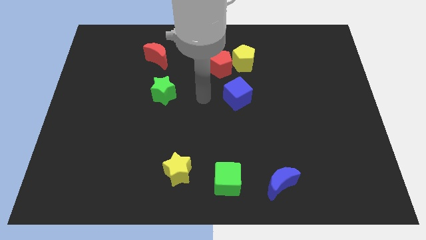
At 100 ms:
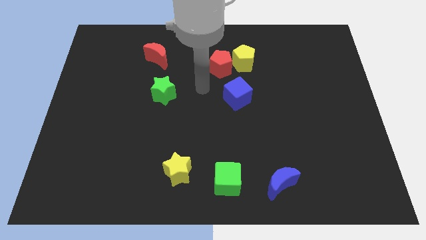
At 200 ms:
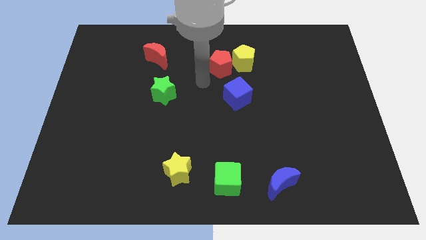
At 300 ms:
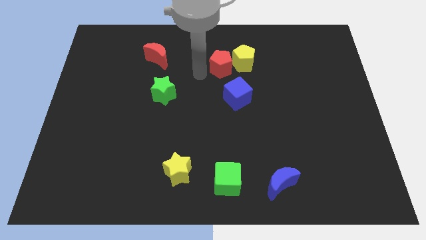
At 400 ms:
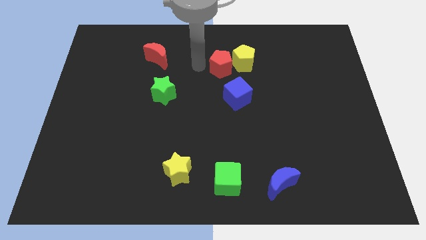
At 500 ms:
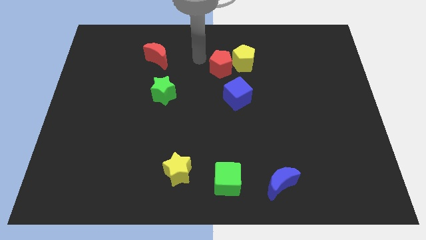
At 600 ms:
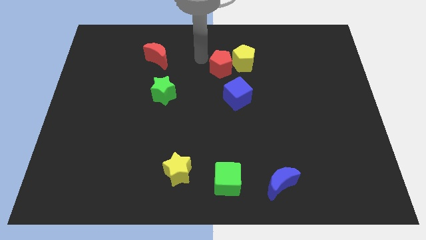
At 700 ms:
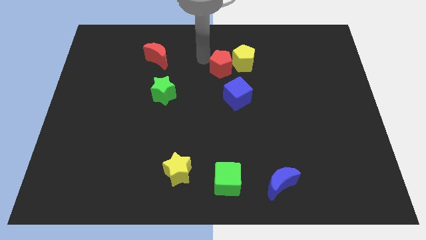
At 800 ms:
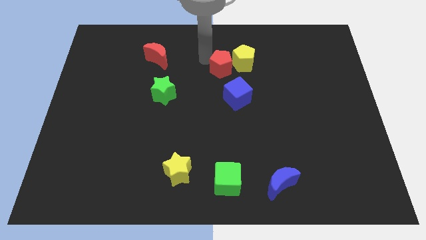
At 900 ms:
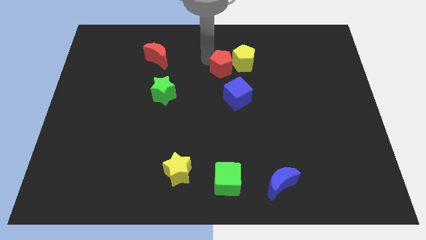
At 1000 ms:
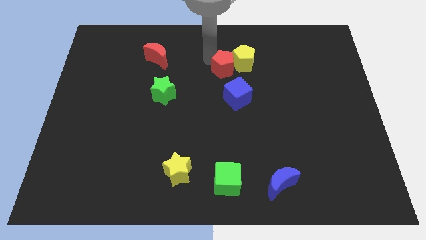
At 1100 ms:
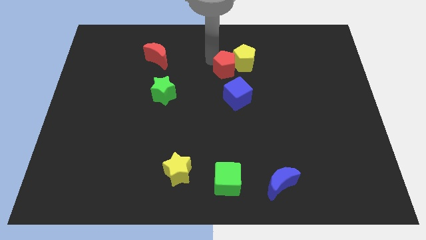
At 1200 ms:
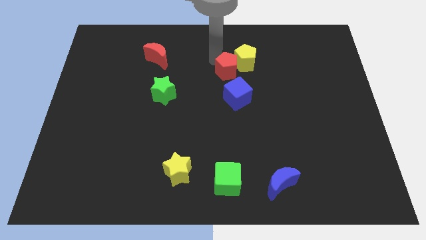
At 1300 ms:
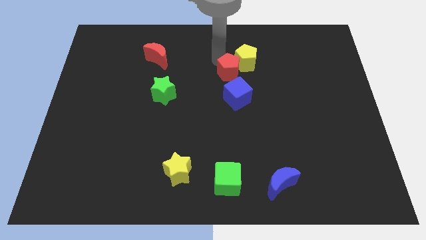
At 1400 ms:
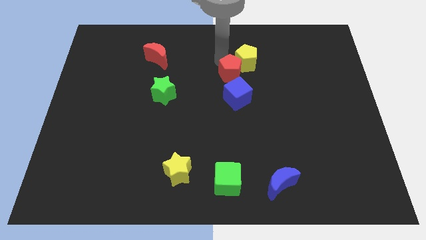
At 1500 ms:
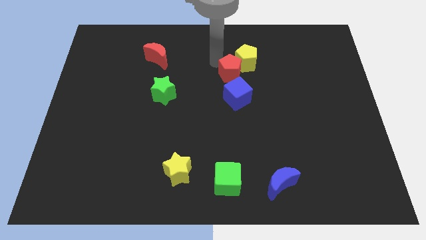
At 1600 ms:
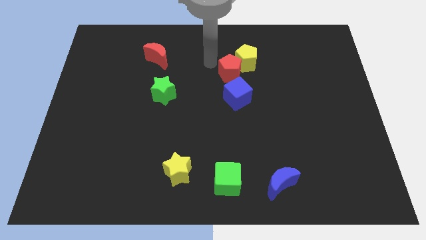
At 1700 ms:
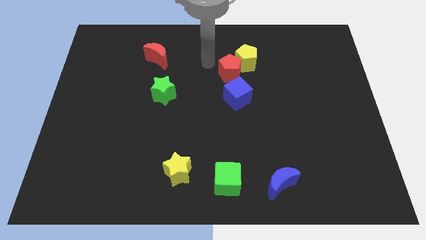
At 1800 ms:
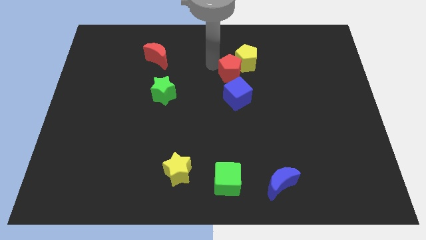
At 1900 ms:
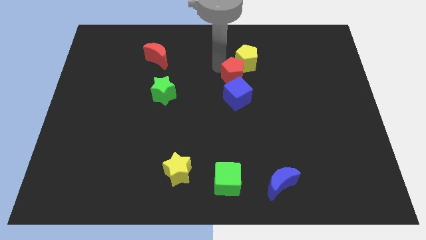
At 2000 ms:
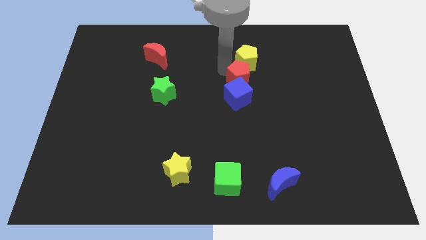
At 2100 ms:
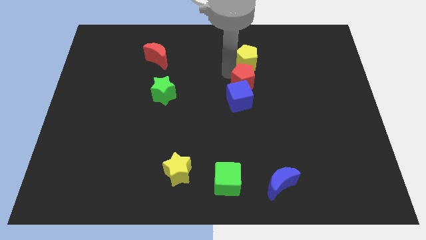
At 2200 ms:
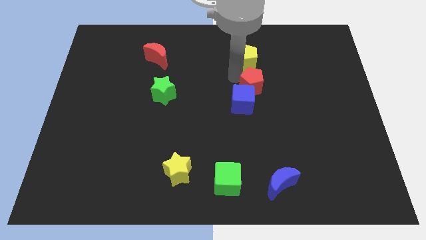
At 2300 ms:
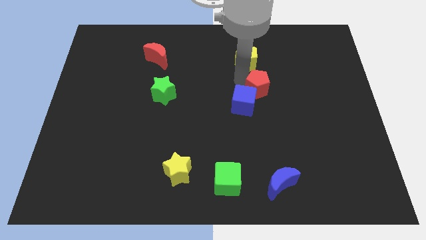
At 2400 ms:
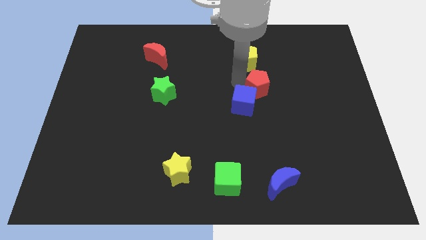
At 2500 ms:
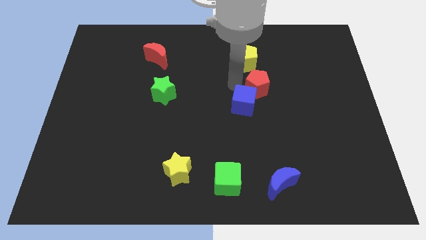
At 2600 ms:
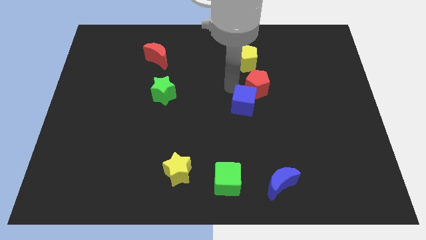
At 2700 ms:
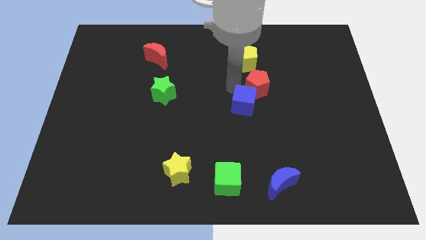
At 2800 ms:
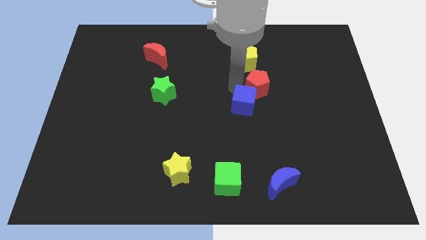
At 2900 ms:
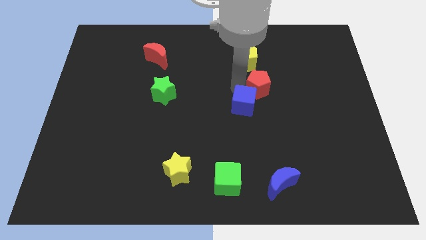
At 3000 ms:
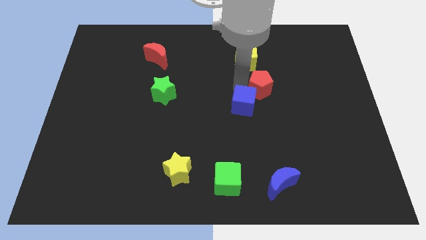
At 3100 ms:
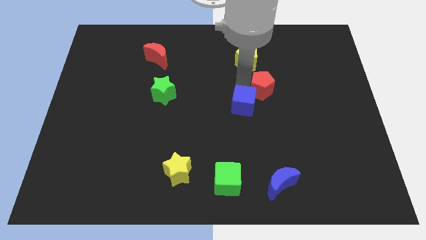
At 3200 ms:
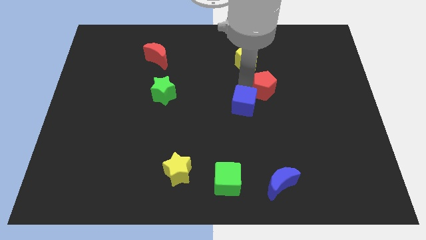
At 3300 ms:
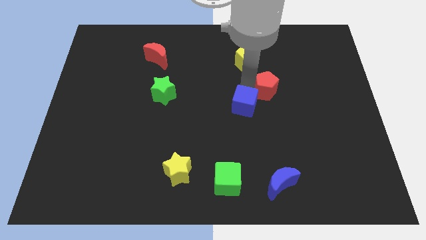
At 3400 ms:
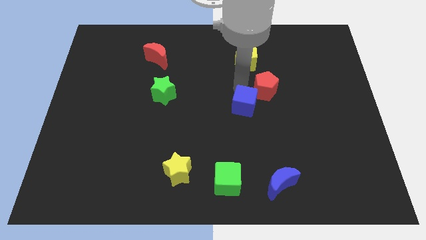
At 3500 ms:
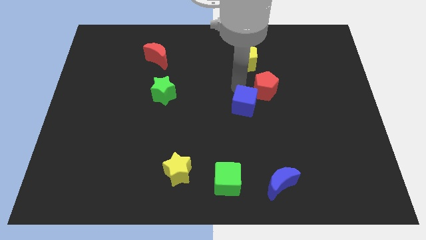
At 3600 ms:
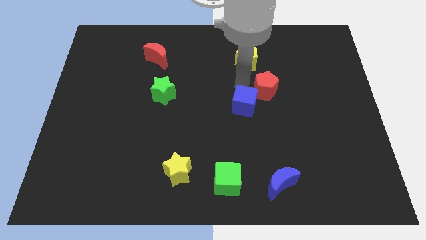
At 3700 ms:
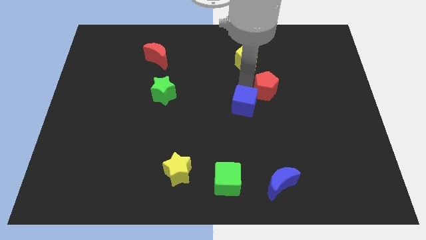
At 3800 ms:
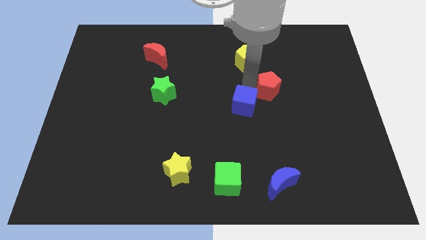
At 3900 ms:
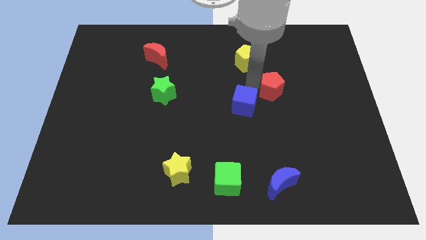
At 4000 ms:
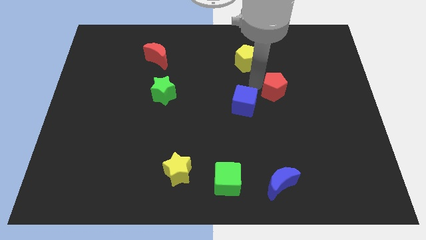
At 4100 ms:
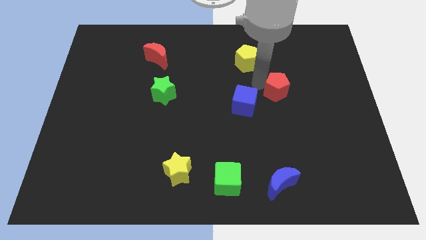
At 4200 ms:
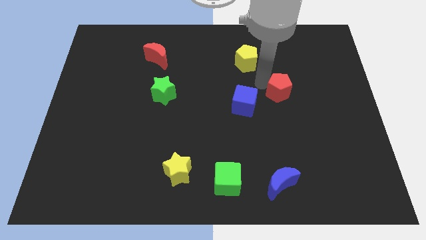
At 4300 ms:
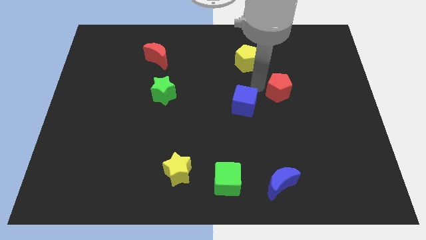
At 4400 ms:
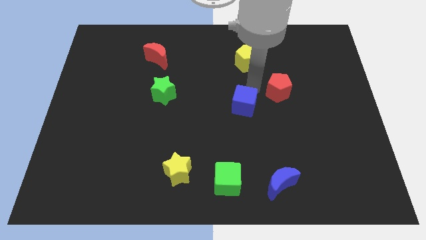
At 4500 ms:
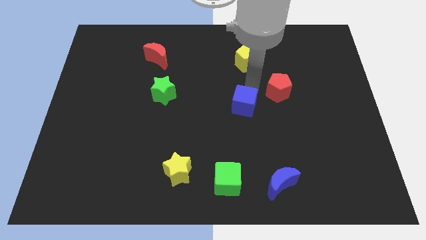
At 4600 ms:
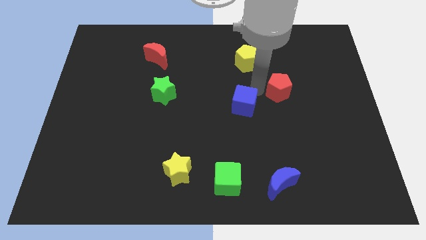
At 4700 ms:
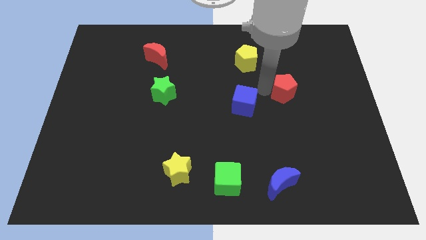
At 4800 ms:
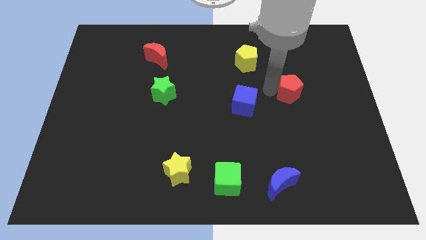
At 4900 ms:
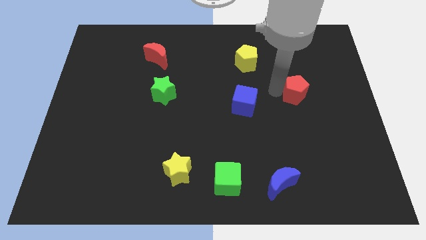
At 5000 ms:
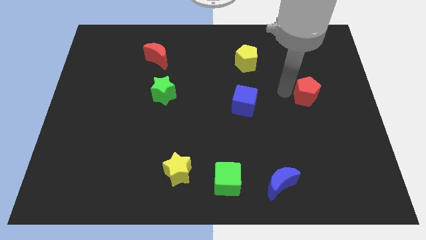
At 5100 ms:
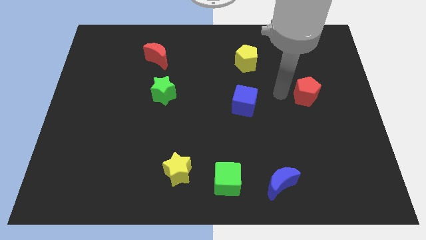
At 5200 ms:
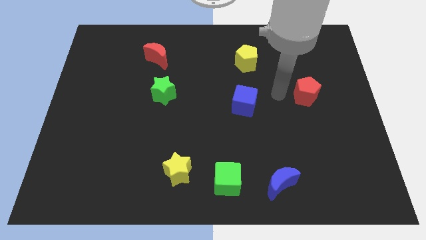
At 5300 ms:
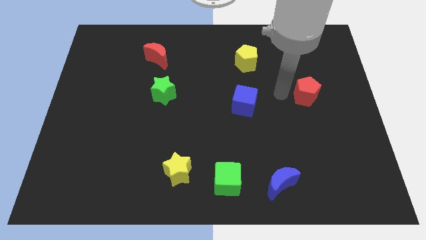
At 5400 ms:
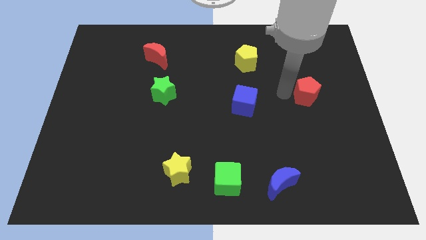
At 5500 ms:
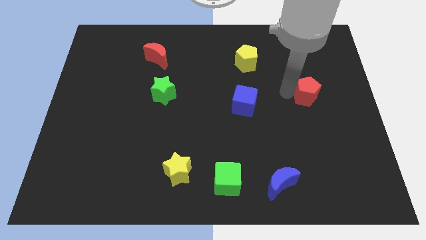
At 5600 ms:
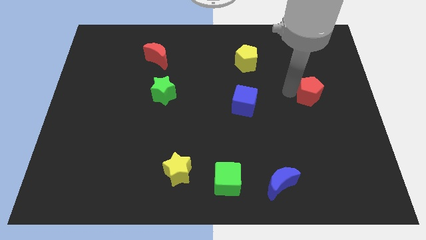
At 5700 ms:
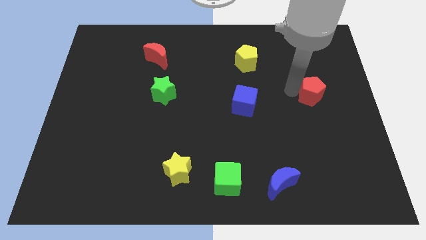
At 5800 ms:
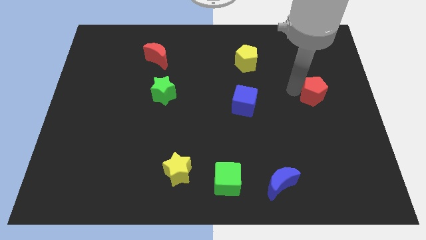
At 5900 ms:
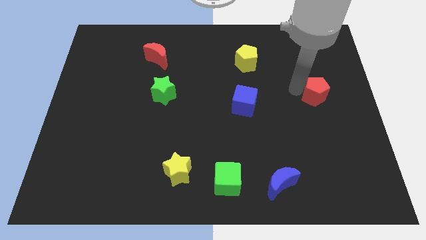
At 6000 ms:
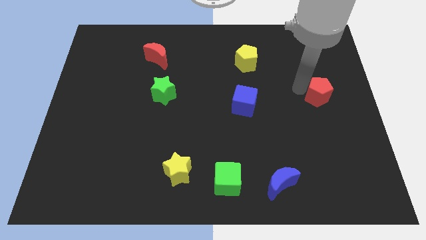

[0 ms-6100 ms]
slide the red pentagon to the right side of the board

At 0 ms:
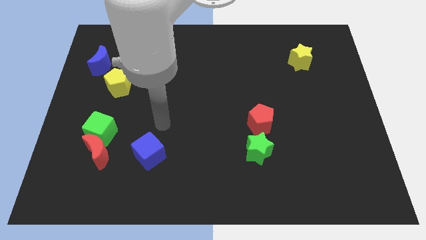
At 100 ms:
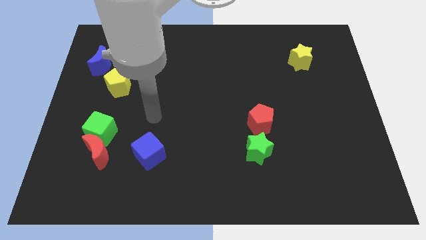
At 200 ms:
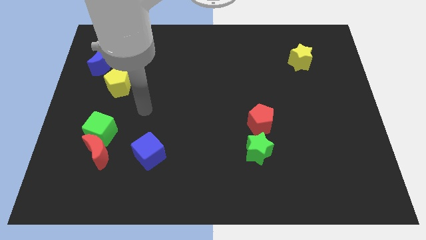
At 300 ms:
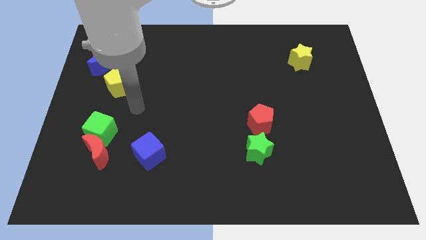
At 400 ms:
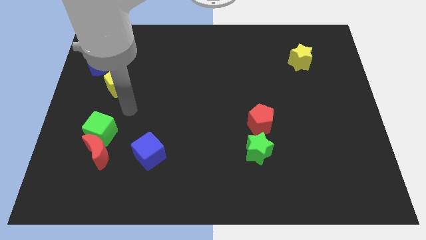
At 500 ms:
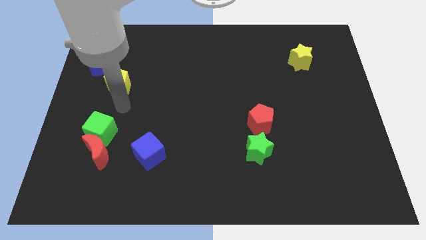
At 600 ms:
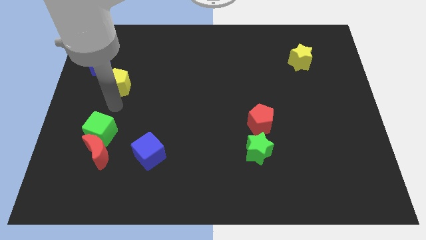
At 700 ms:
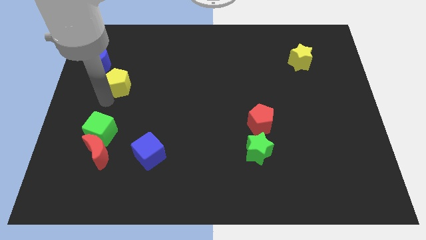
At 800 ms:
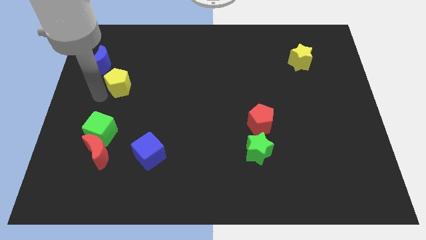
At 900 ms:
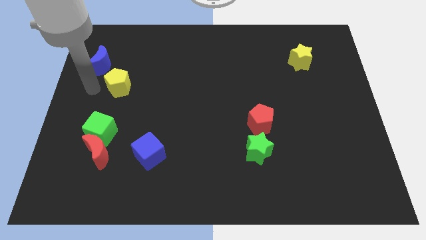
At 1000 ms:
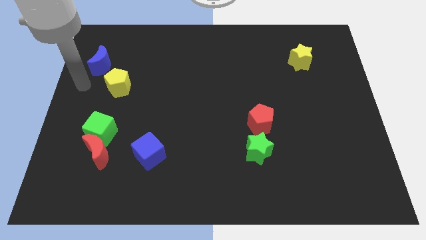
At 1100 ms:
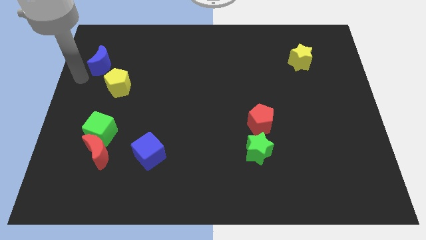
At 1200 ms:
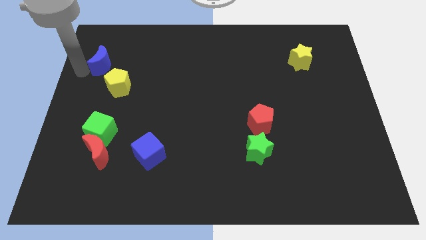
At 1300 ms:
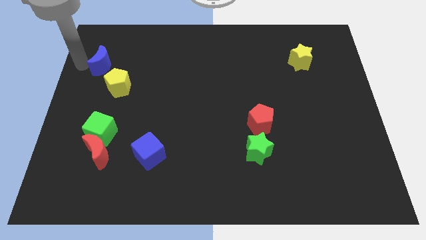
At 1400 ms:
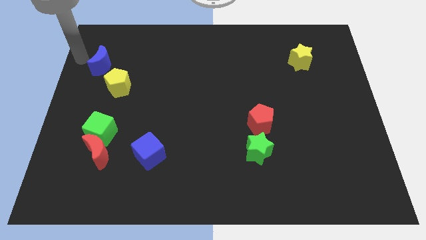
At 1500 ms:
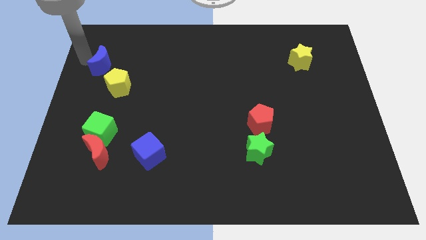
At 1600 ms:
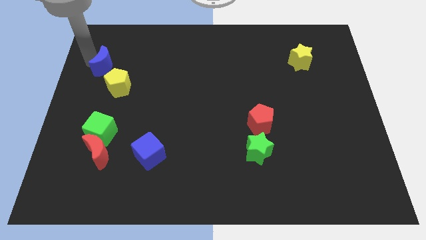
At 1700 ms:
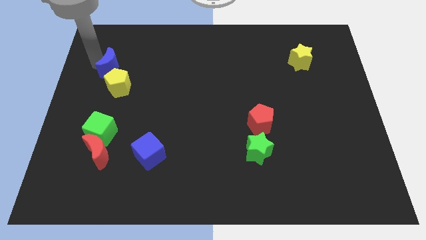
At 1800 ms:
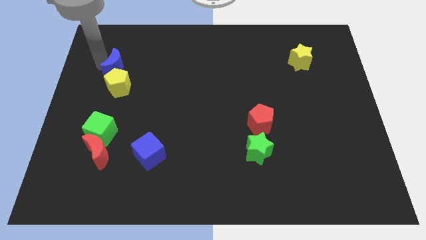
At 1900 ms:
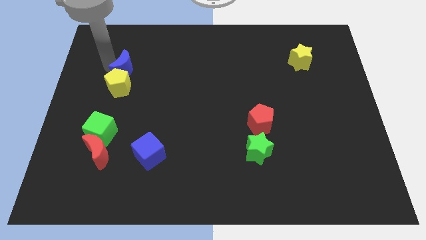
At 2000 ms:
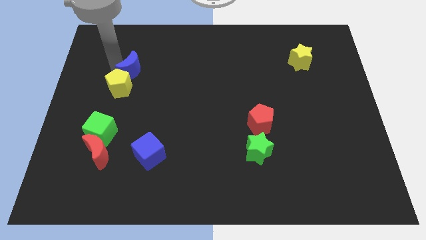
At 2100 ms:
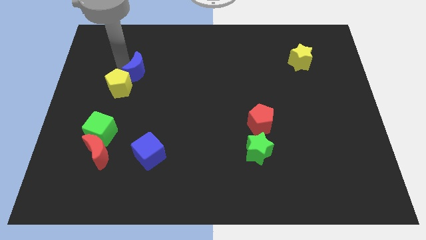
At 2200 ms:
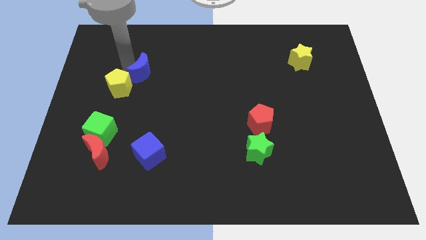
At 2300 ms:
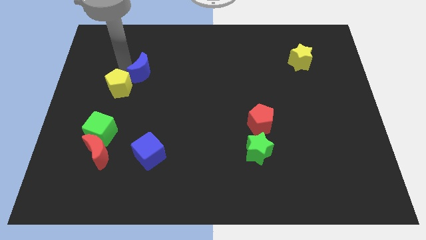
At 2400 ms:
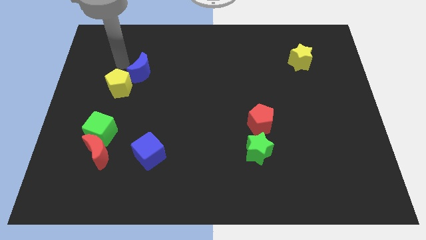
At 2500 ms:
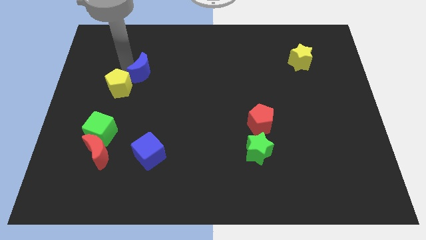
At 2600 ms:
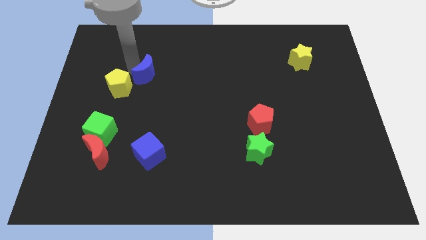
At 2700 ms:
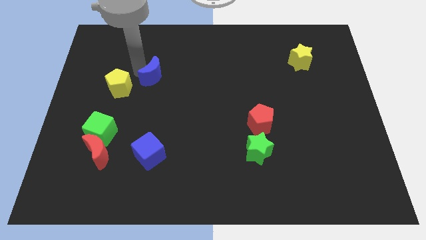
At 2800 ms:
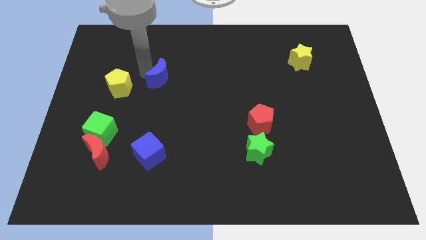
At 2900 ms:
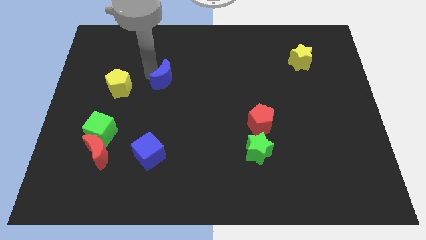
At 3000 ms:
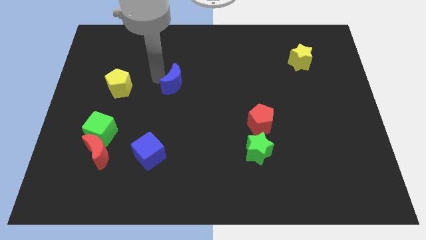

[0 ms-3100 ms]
push the blue moon to the center
